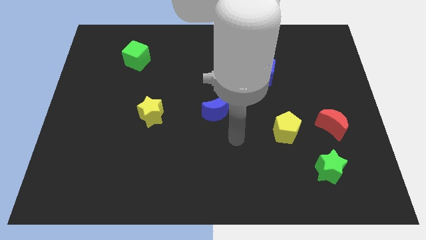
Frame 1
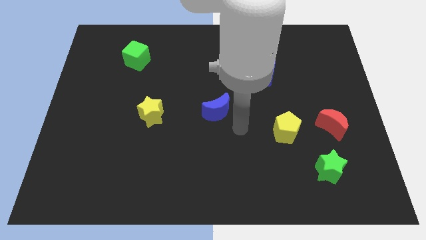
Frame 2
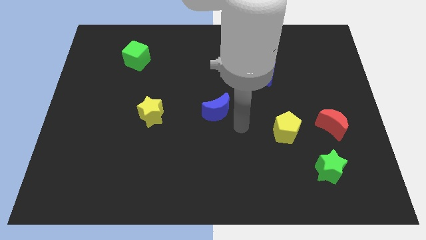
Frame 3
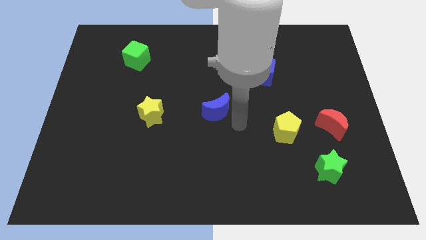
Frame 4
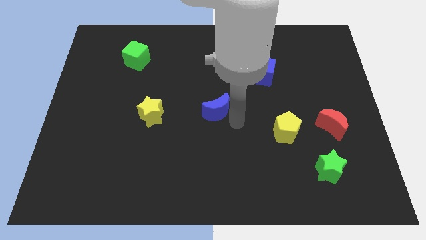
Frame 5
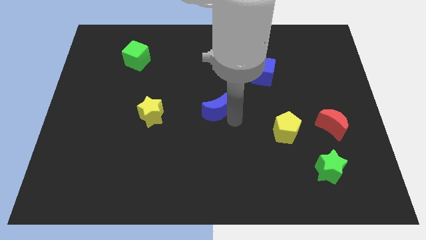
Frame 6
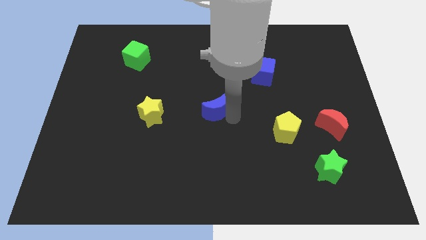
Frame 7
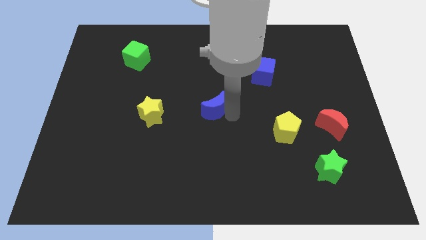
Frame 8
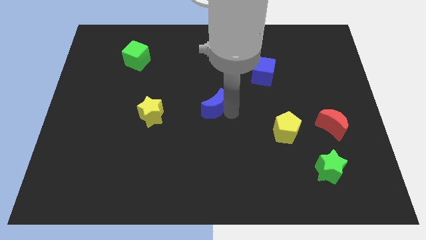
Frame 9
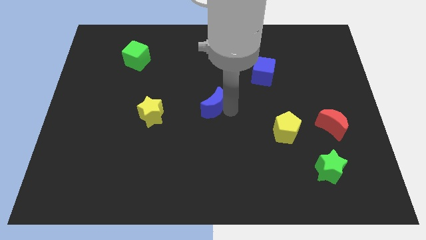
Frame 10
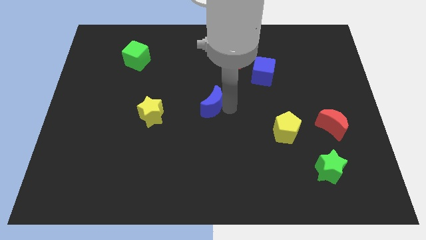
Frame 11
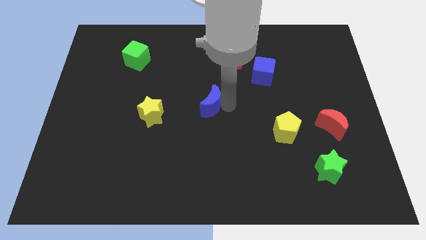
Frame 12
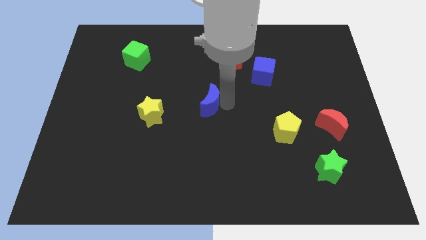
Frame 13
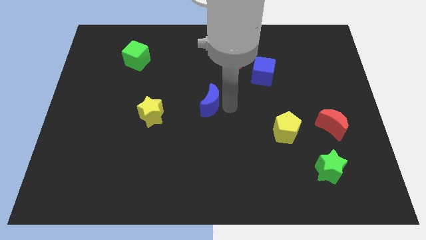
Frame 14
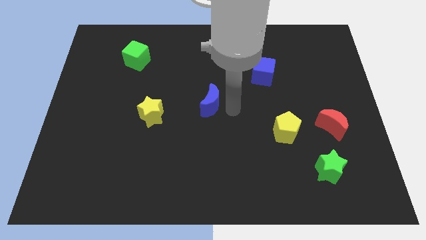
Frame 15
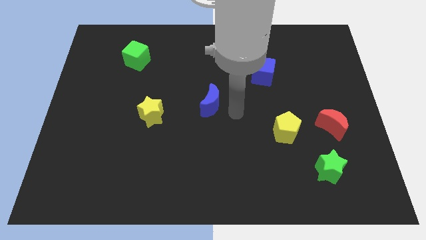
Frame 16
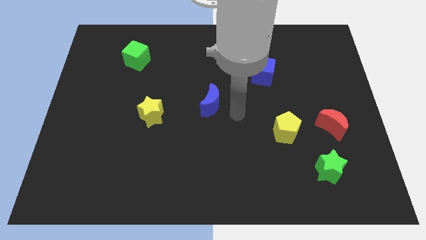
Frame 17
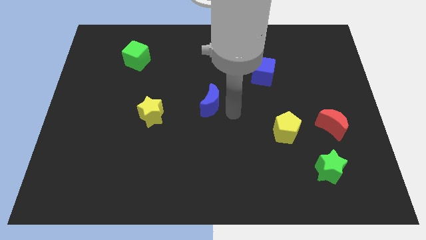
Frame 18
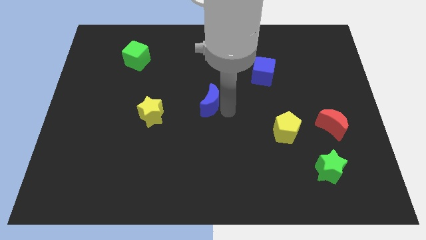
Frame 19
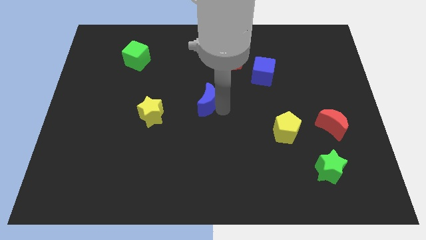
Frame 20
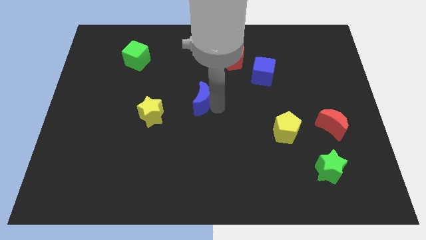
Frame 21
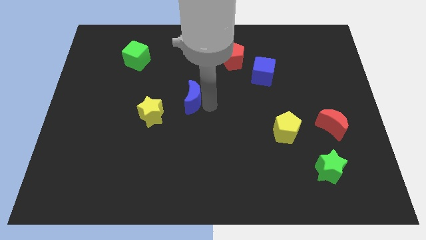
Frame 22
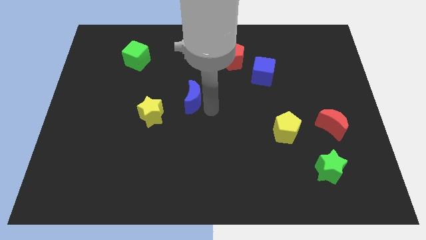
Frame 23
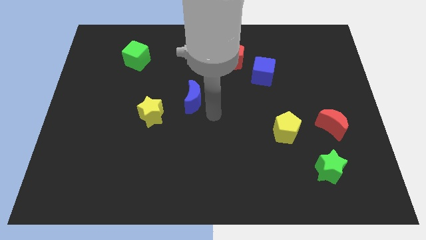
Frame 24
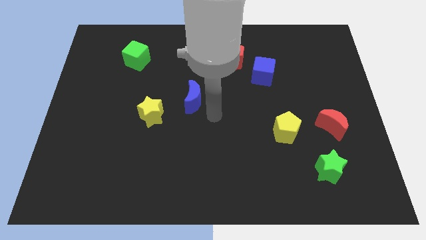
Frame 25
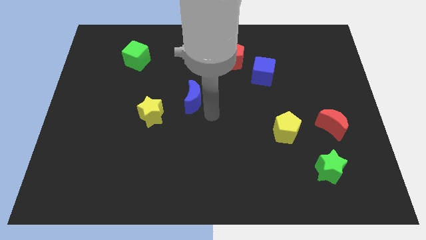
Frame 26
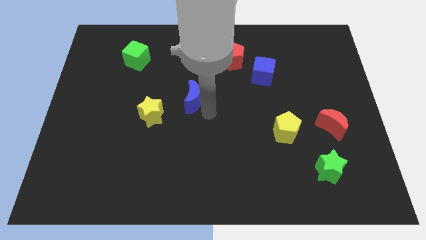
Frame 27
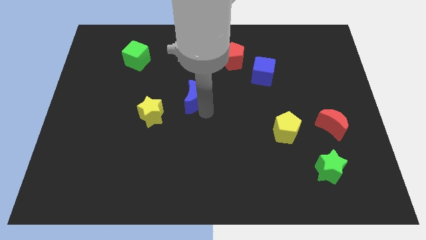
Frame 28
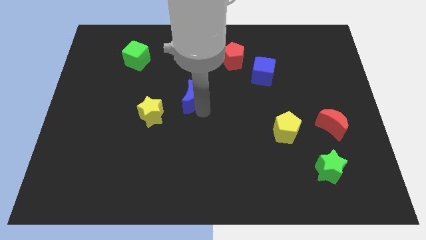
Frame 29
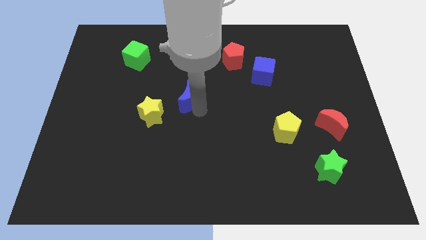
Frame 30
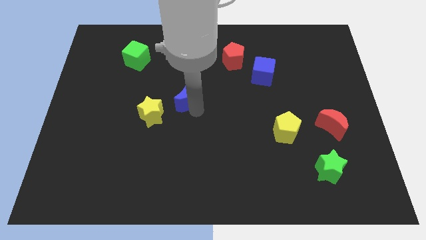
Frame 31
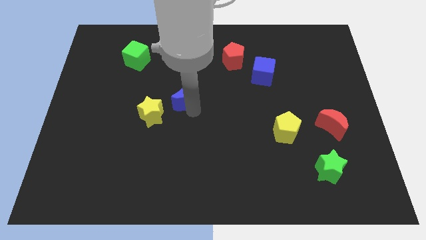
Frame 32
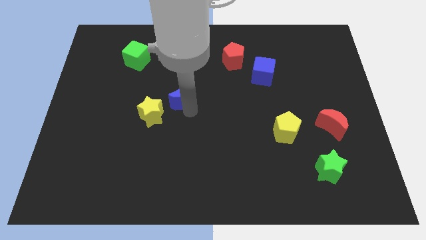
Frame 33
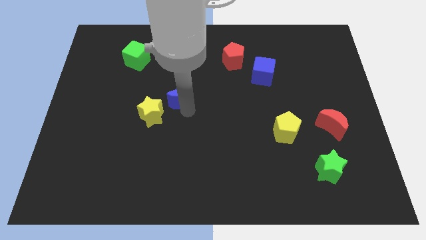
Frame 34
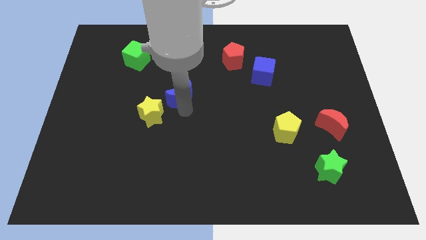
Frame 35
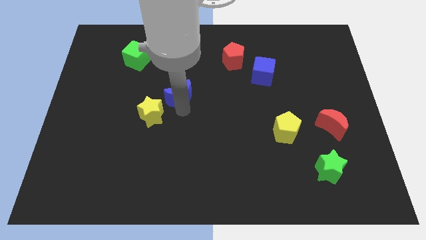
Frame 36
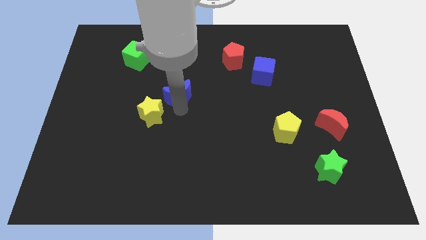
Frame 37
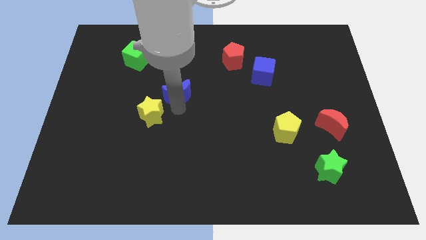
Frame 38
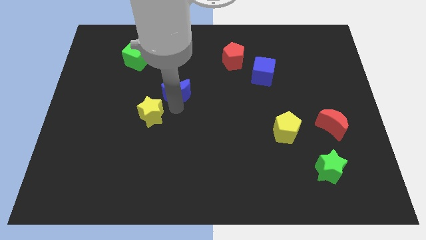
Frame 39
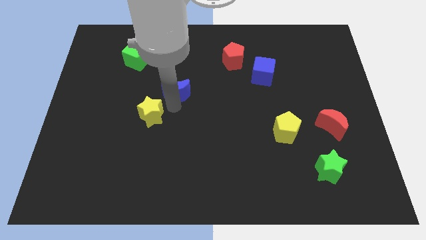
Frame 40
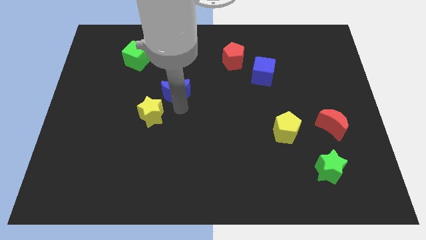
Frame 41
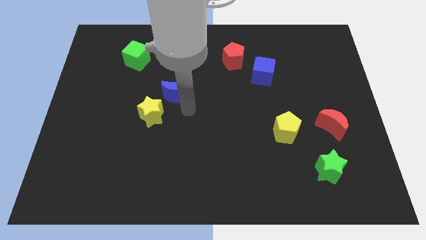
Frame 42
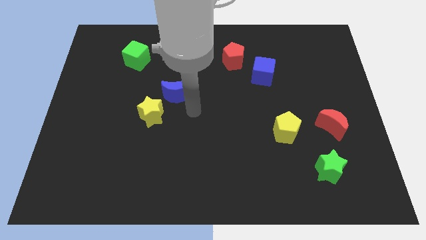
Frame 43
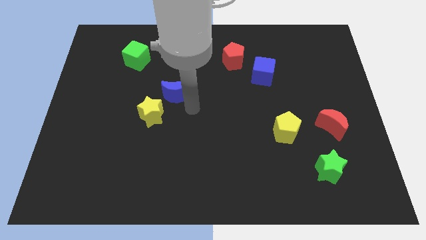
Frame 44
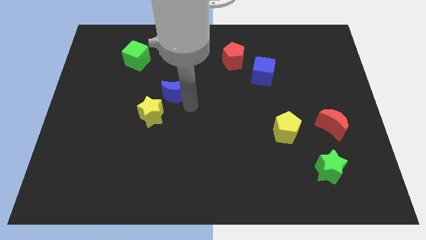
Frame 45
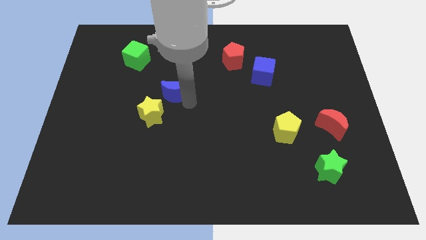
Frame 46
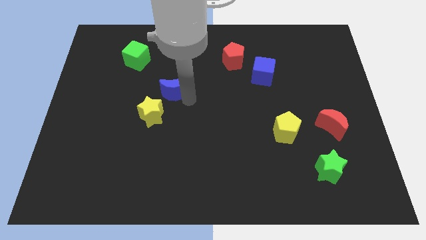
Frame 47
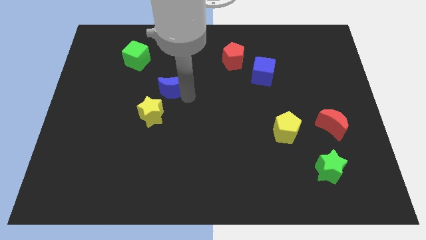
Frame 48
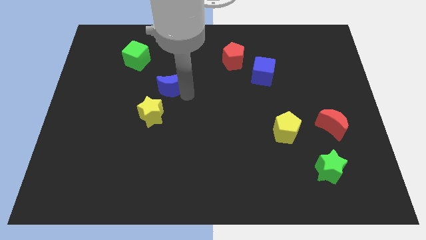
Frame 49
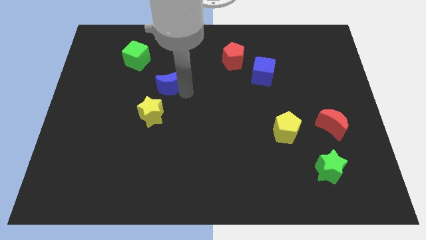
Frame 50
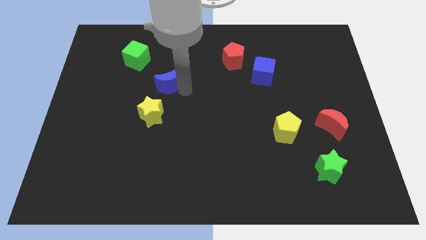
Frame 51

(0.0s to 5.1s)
put the blue moon diagonally down and to the right of the green cube

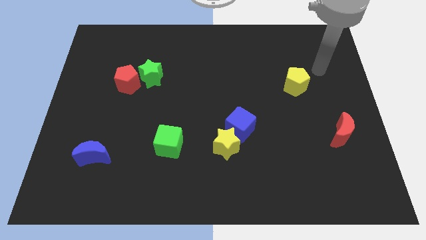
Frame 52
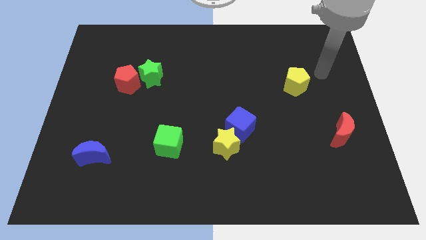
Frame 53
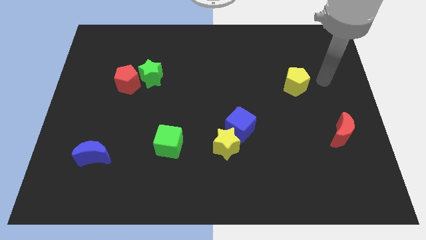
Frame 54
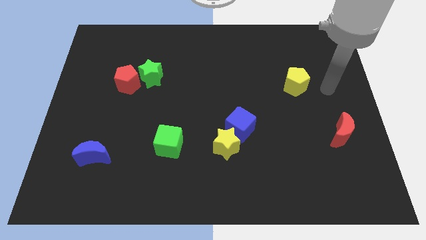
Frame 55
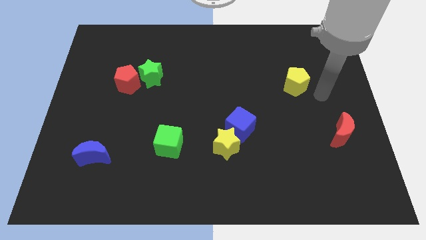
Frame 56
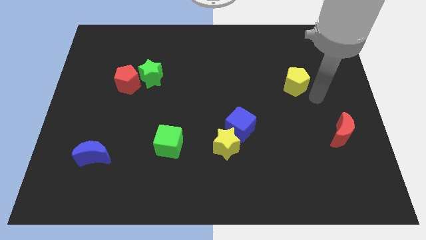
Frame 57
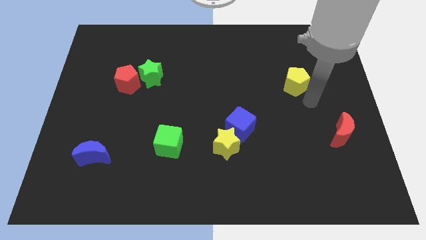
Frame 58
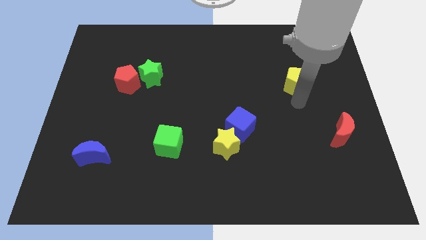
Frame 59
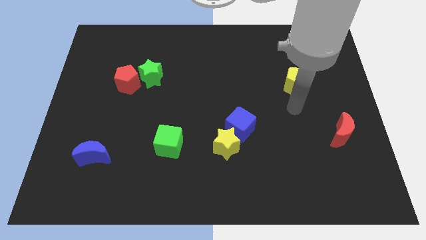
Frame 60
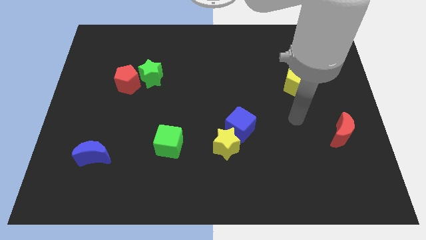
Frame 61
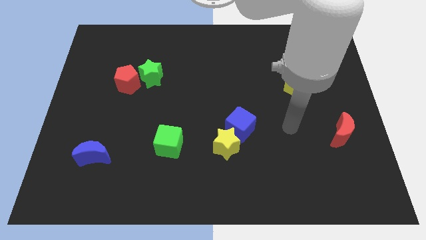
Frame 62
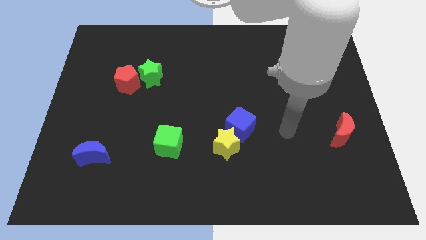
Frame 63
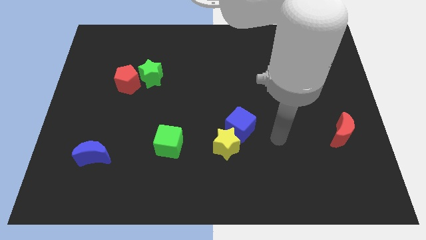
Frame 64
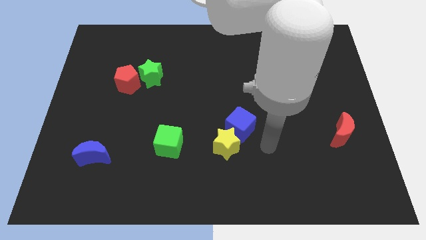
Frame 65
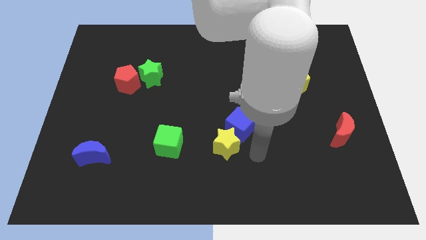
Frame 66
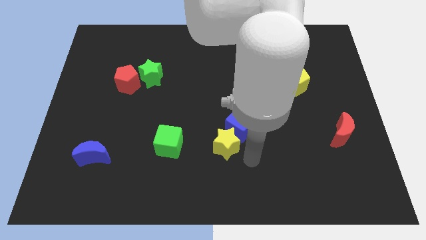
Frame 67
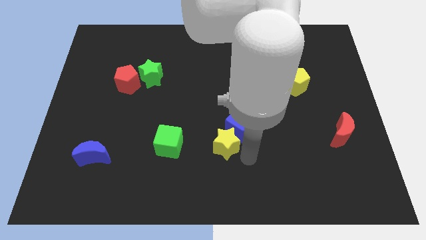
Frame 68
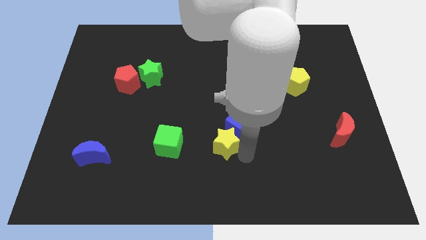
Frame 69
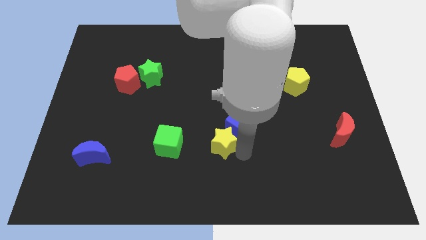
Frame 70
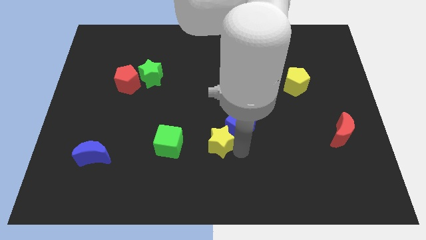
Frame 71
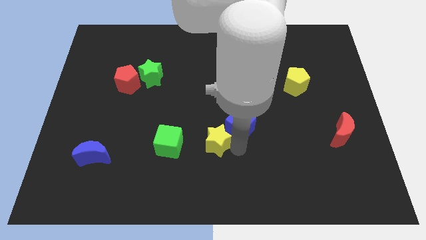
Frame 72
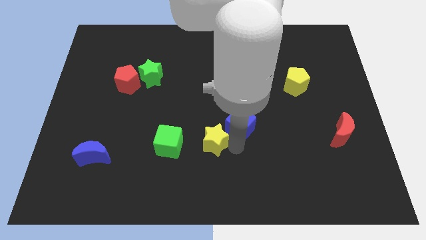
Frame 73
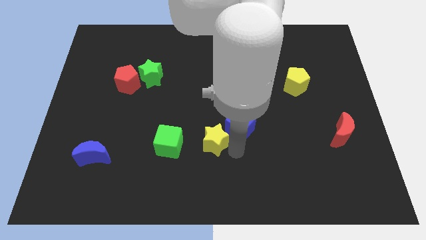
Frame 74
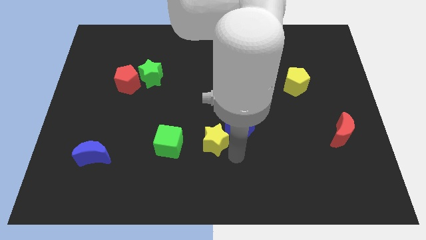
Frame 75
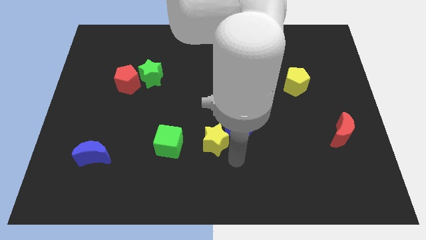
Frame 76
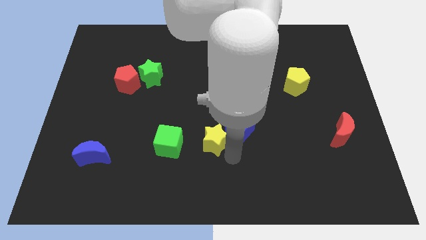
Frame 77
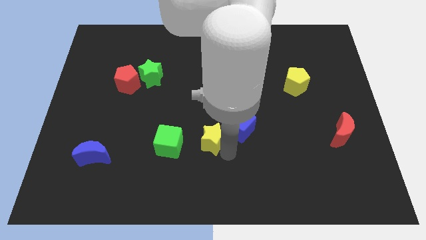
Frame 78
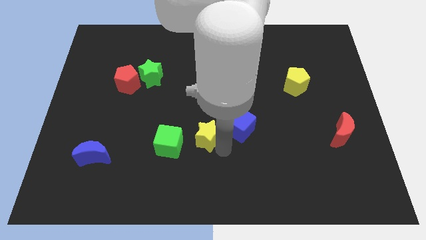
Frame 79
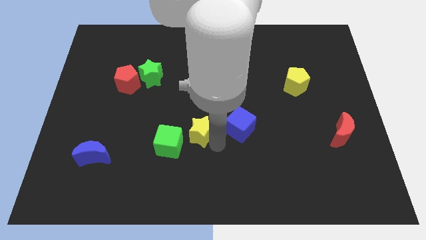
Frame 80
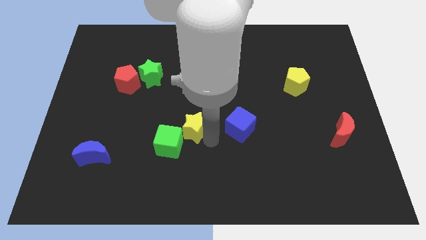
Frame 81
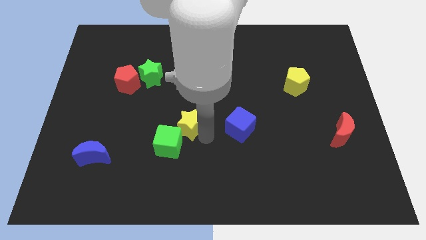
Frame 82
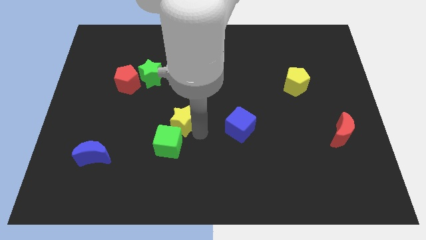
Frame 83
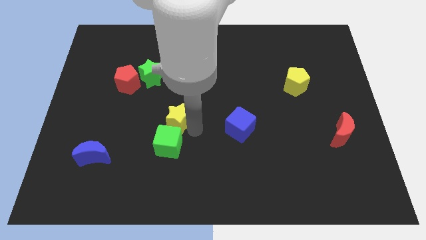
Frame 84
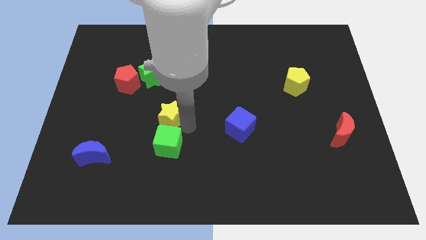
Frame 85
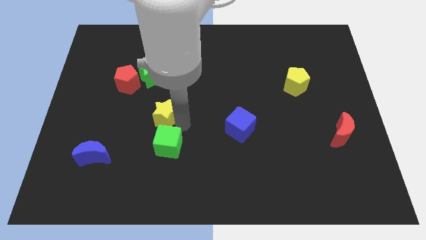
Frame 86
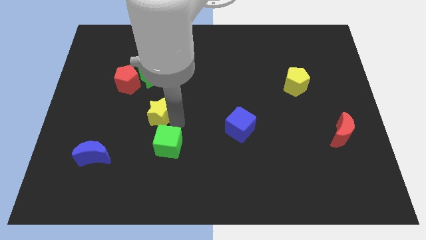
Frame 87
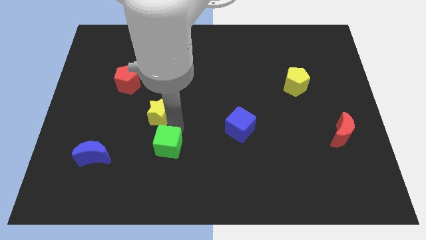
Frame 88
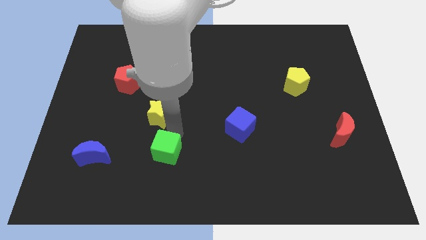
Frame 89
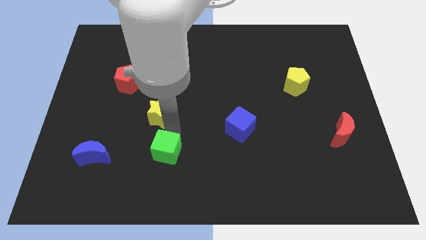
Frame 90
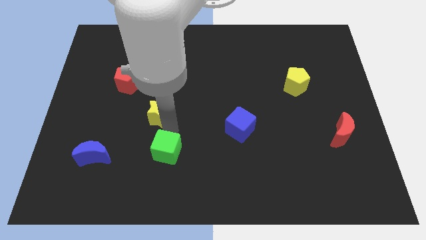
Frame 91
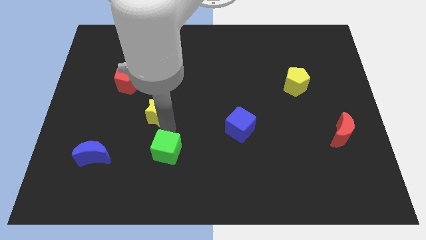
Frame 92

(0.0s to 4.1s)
push the yellow star to the bottom right of the red pentagon
